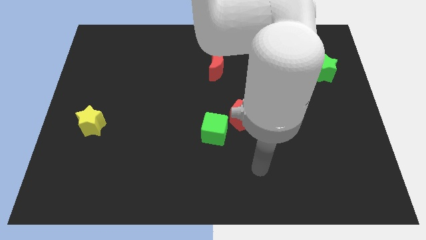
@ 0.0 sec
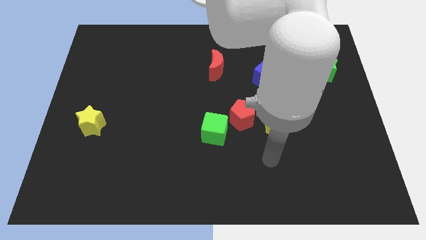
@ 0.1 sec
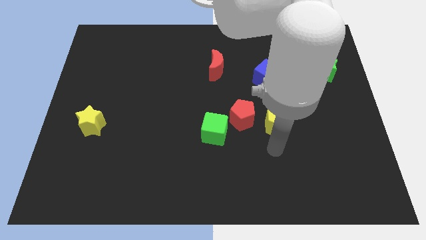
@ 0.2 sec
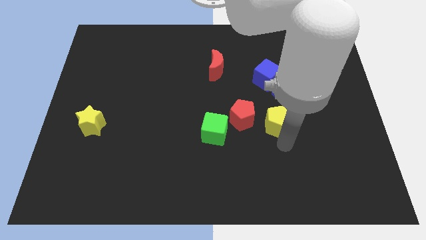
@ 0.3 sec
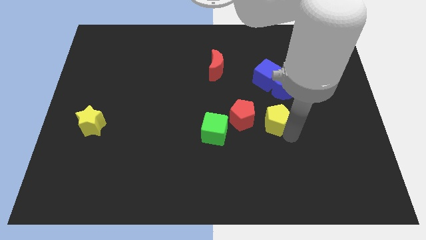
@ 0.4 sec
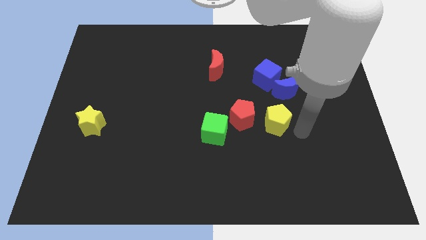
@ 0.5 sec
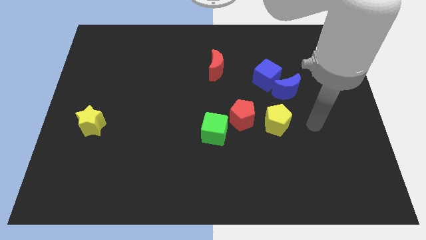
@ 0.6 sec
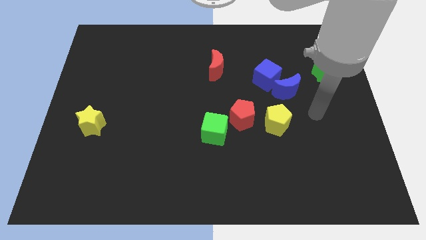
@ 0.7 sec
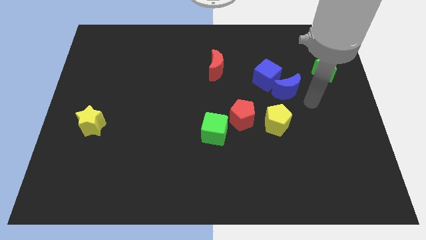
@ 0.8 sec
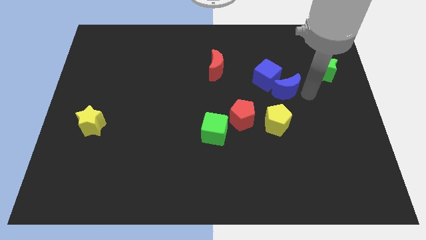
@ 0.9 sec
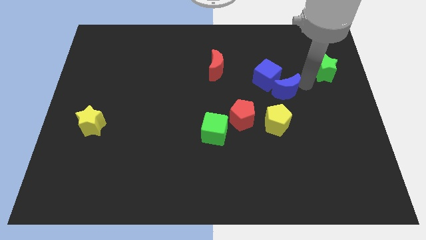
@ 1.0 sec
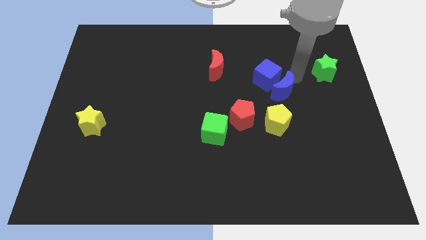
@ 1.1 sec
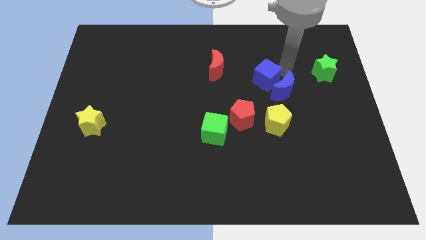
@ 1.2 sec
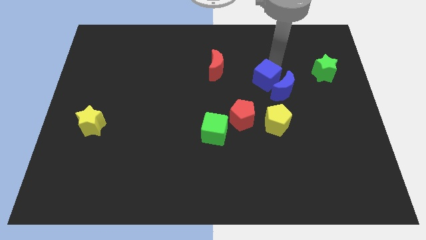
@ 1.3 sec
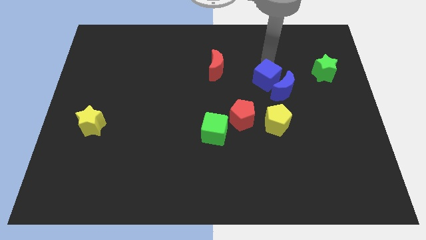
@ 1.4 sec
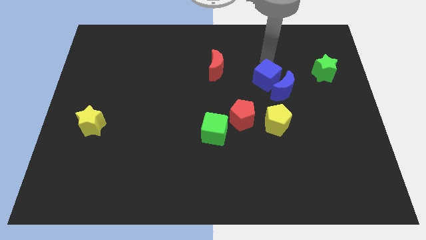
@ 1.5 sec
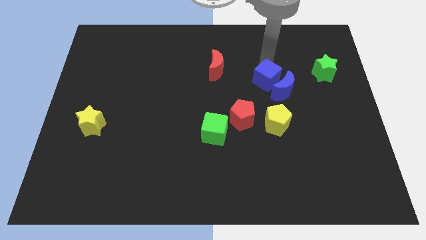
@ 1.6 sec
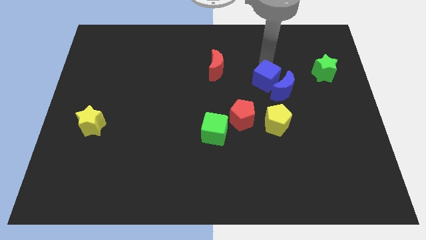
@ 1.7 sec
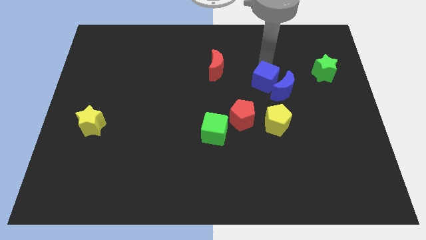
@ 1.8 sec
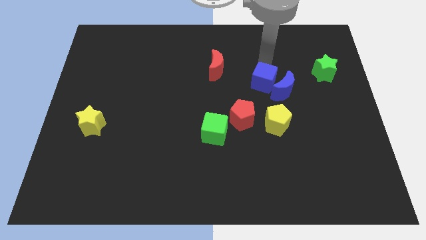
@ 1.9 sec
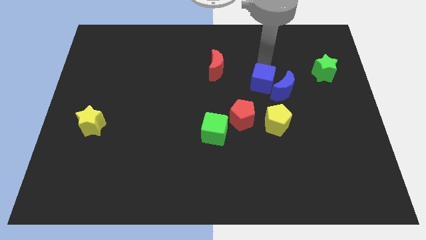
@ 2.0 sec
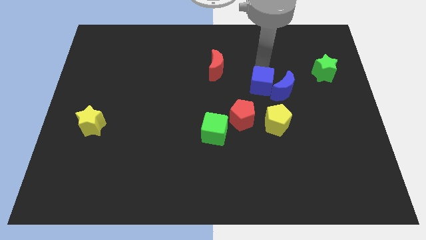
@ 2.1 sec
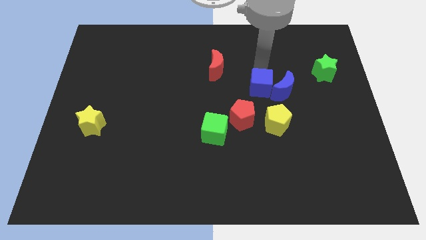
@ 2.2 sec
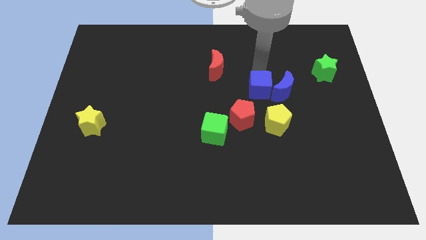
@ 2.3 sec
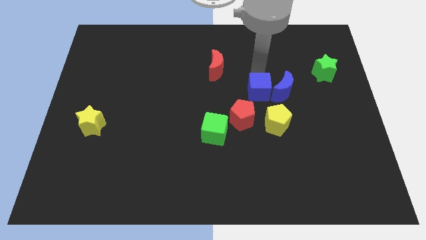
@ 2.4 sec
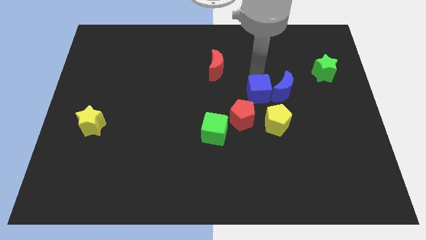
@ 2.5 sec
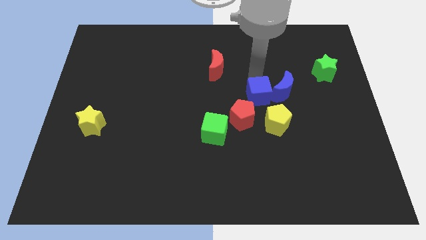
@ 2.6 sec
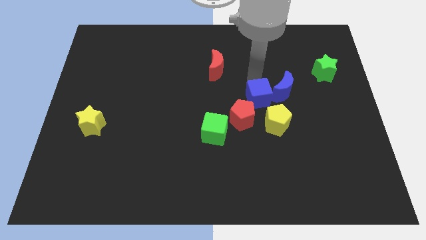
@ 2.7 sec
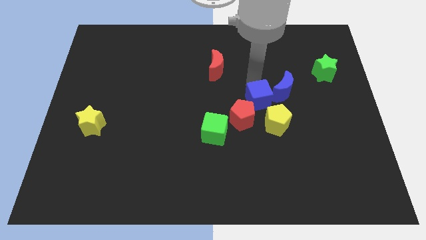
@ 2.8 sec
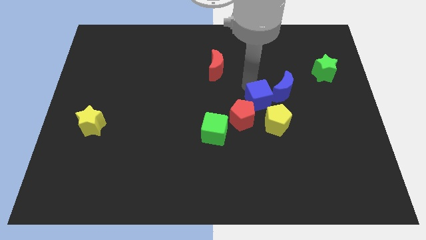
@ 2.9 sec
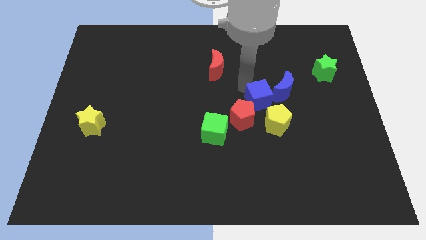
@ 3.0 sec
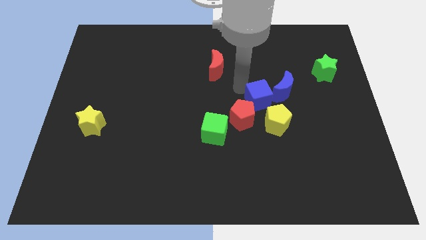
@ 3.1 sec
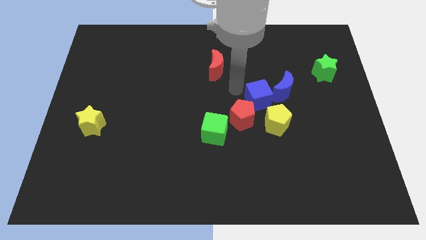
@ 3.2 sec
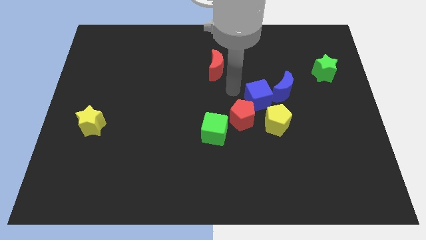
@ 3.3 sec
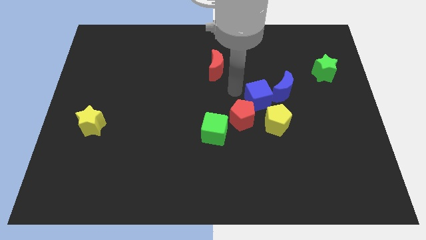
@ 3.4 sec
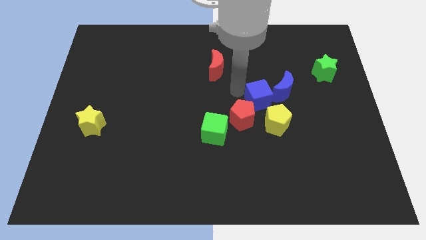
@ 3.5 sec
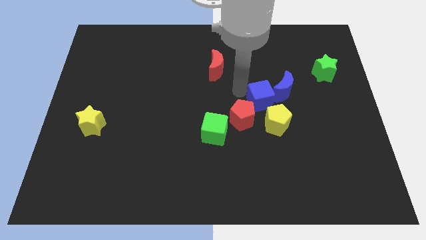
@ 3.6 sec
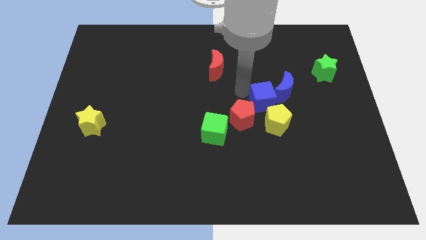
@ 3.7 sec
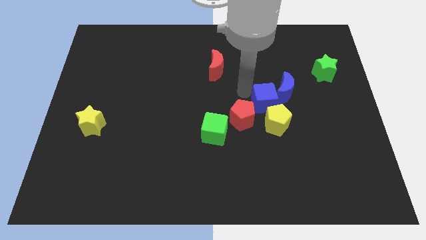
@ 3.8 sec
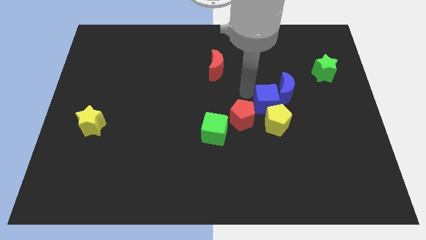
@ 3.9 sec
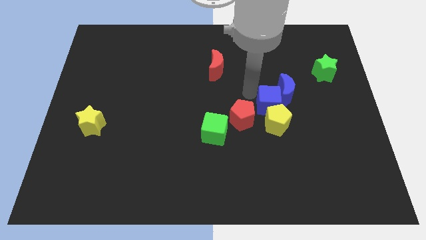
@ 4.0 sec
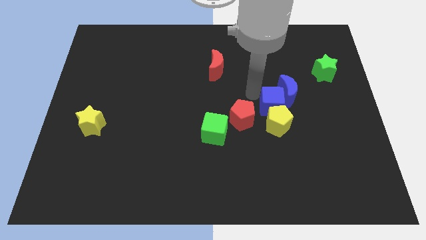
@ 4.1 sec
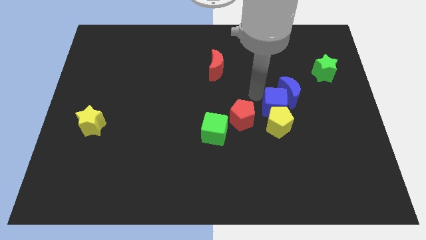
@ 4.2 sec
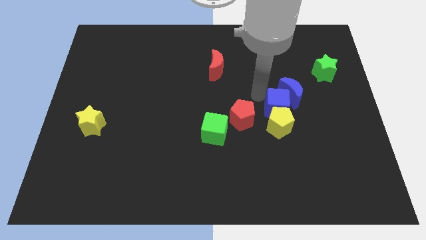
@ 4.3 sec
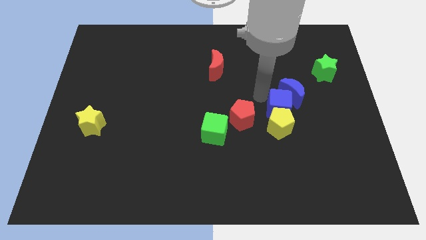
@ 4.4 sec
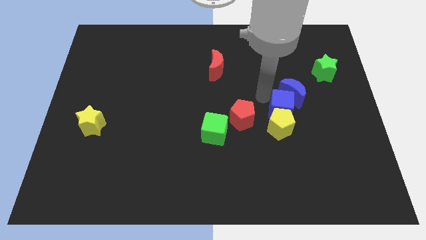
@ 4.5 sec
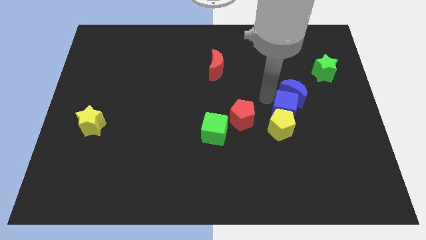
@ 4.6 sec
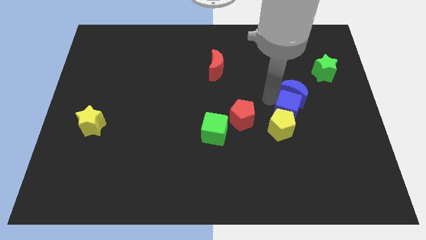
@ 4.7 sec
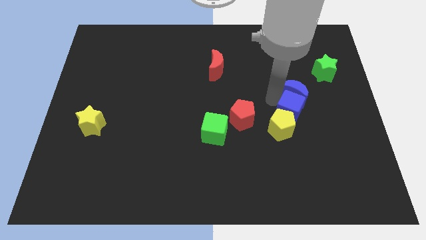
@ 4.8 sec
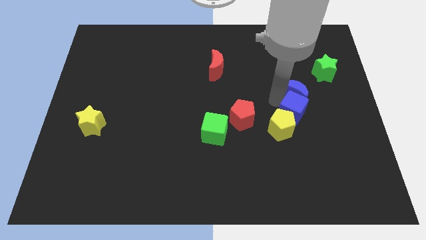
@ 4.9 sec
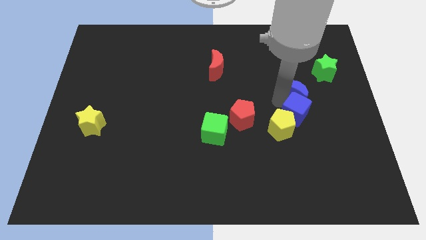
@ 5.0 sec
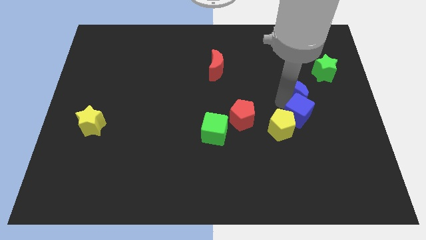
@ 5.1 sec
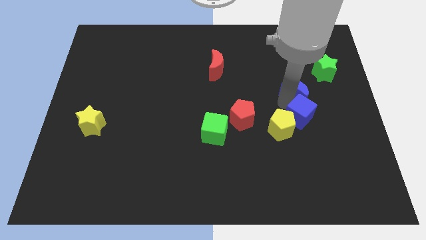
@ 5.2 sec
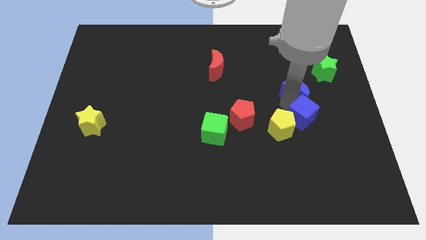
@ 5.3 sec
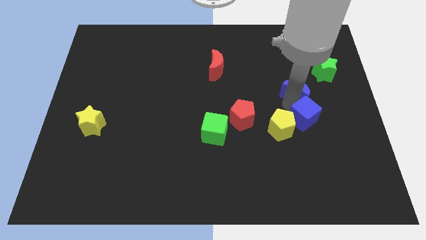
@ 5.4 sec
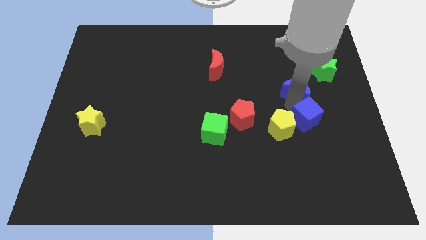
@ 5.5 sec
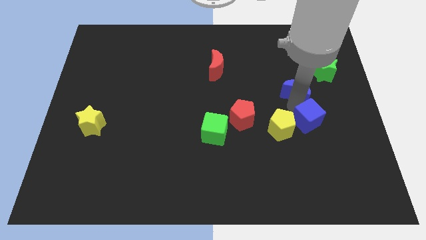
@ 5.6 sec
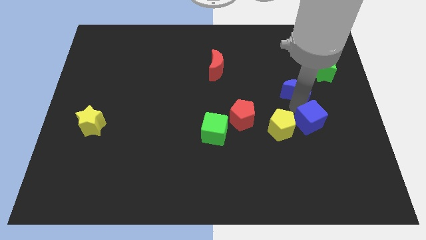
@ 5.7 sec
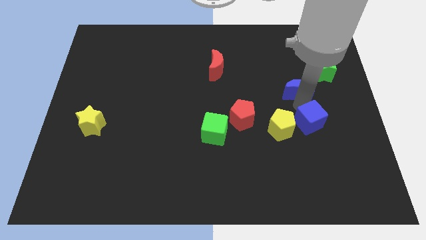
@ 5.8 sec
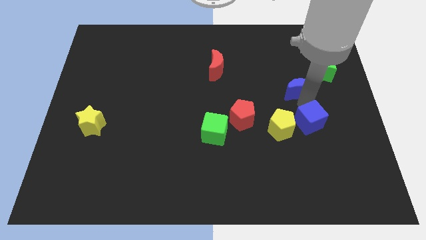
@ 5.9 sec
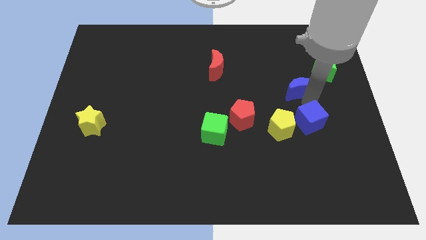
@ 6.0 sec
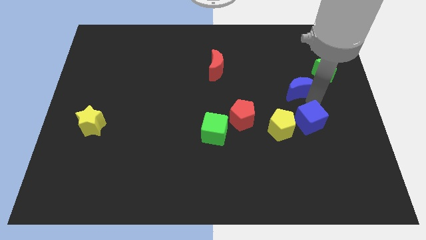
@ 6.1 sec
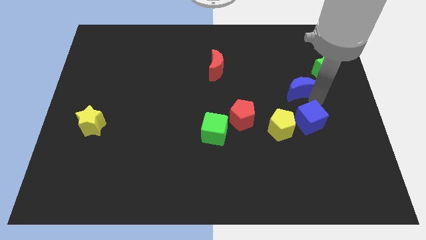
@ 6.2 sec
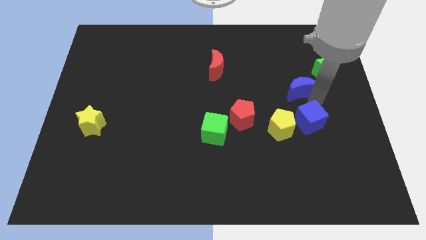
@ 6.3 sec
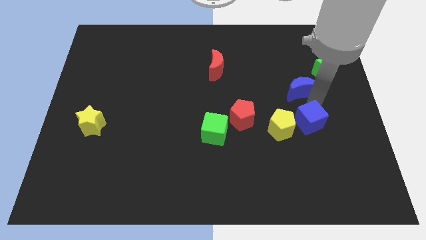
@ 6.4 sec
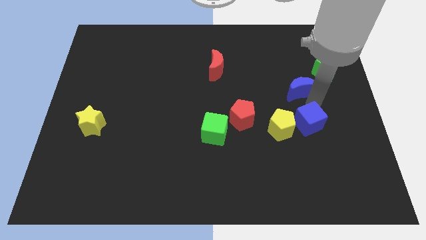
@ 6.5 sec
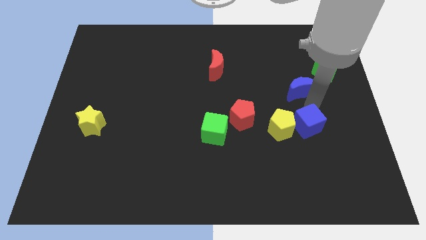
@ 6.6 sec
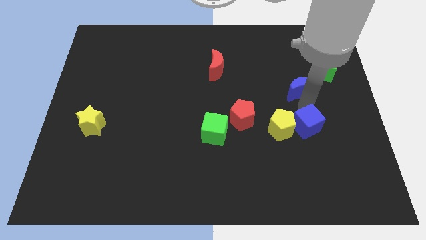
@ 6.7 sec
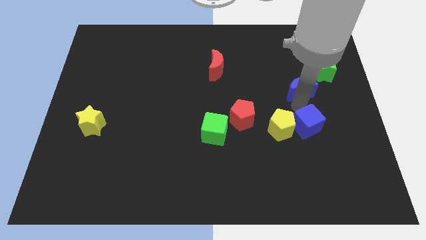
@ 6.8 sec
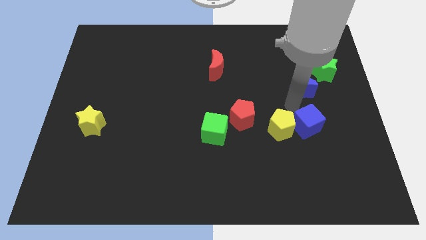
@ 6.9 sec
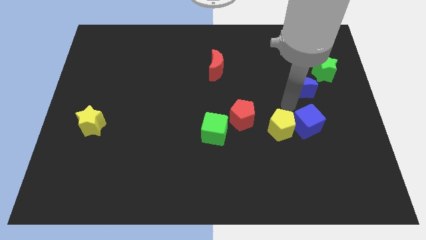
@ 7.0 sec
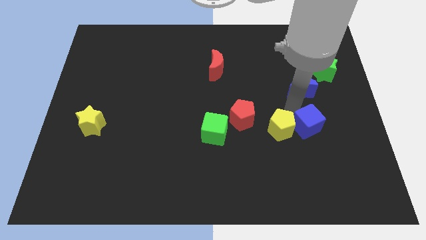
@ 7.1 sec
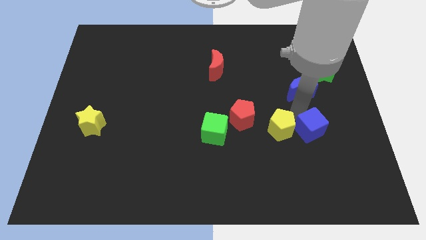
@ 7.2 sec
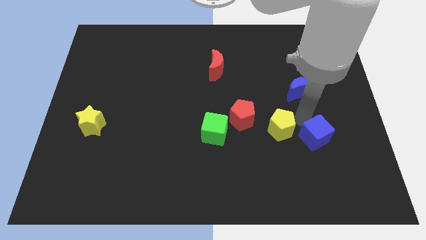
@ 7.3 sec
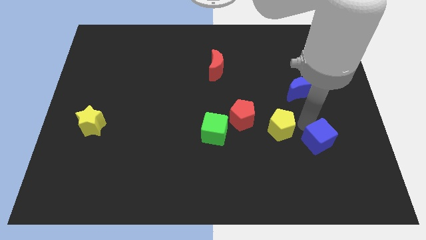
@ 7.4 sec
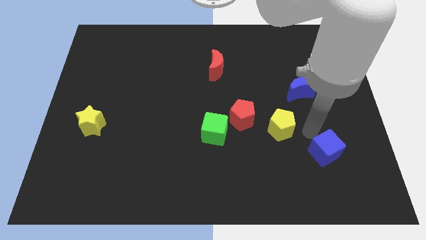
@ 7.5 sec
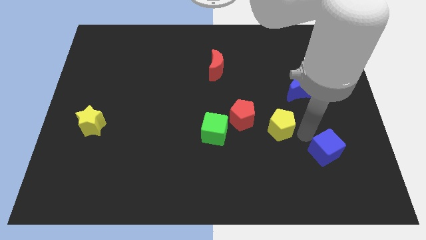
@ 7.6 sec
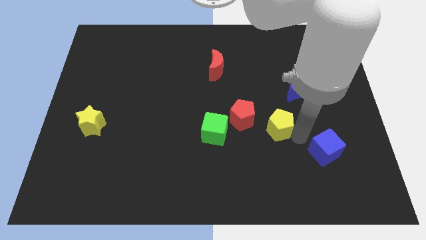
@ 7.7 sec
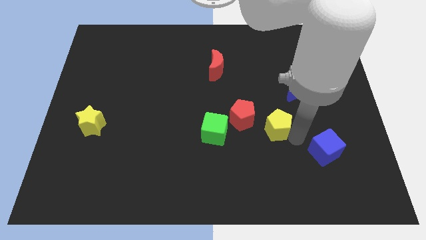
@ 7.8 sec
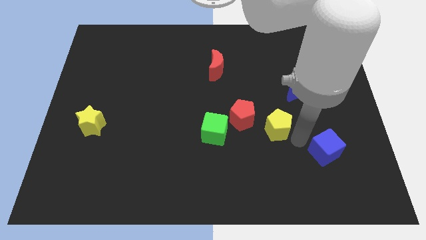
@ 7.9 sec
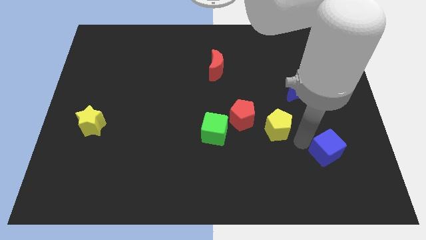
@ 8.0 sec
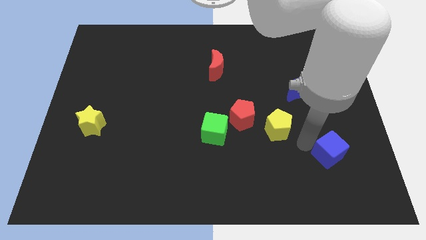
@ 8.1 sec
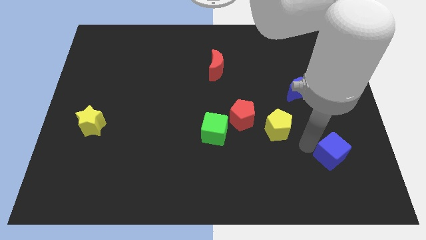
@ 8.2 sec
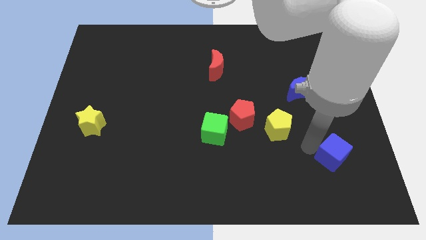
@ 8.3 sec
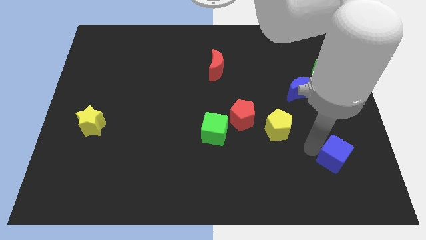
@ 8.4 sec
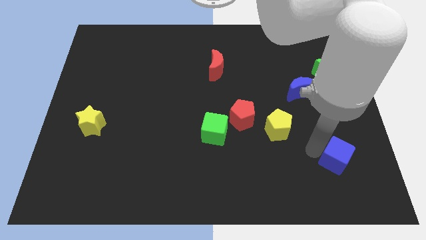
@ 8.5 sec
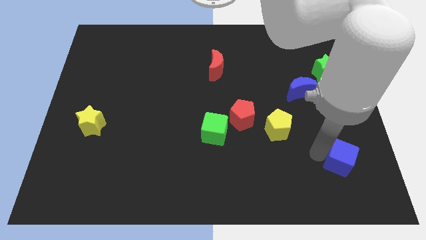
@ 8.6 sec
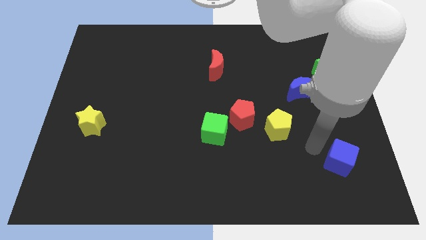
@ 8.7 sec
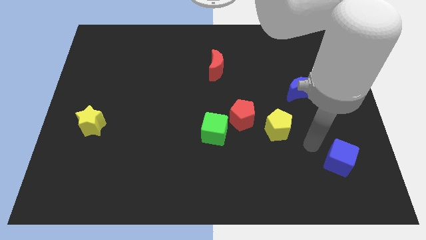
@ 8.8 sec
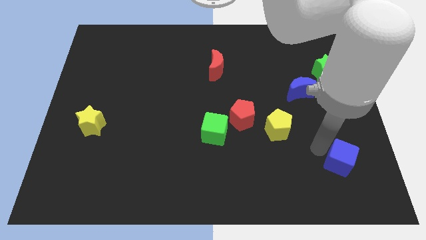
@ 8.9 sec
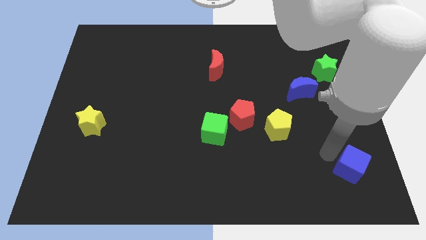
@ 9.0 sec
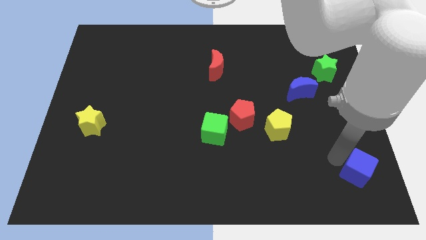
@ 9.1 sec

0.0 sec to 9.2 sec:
move the blue cube to the bottom right
